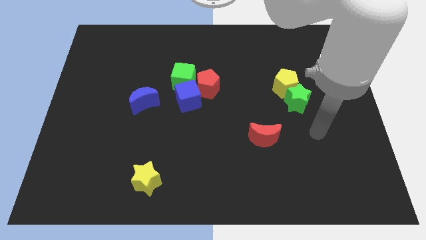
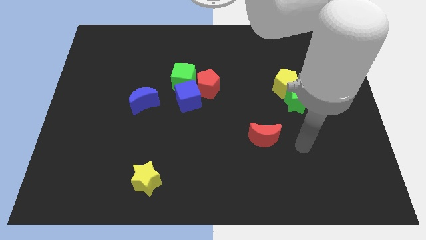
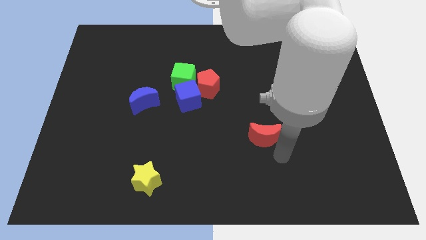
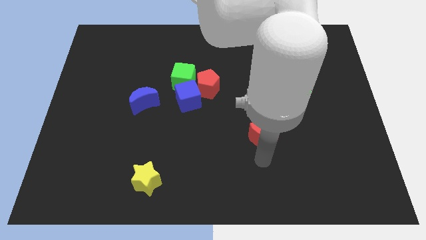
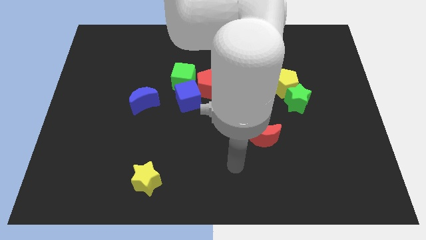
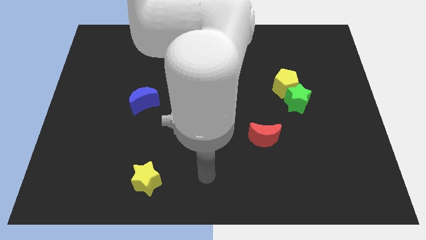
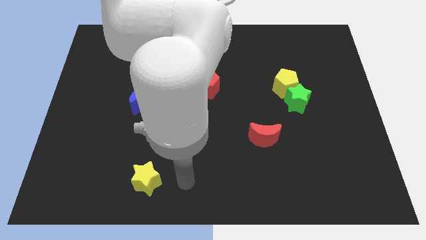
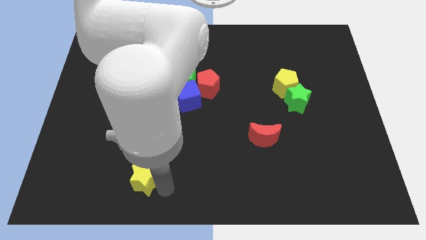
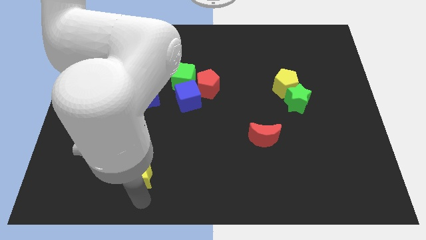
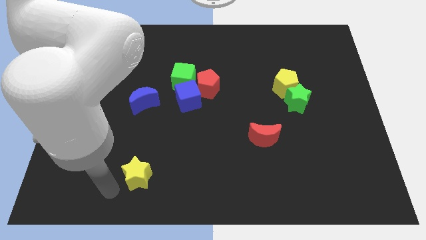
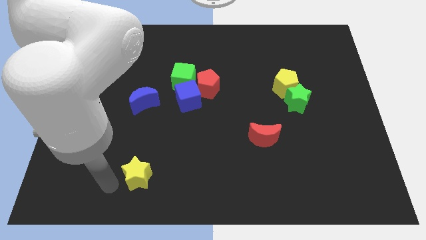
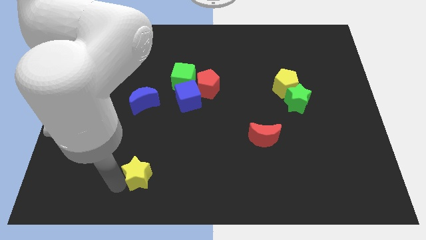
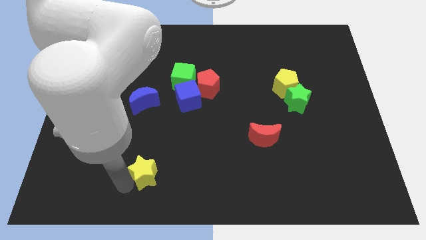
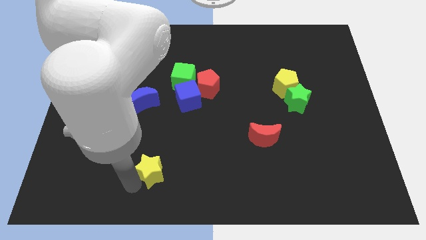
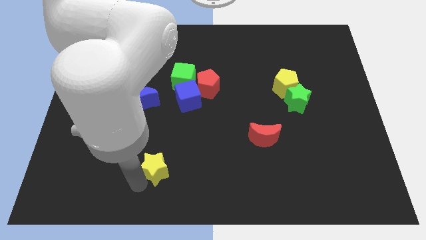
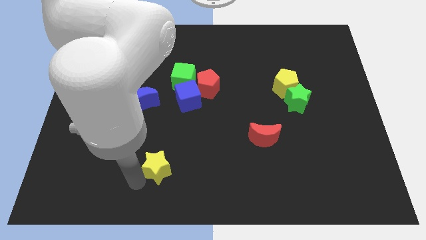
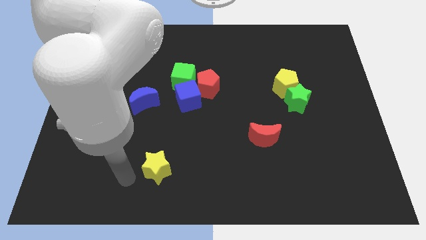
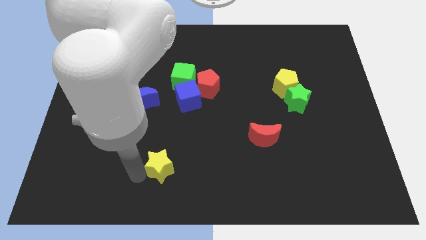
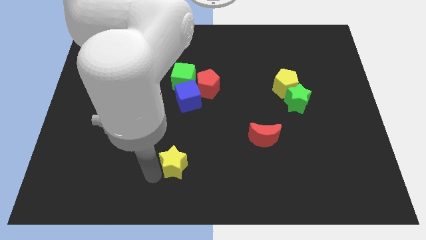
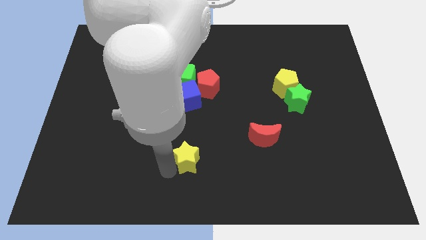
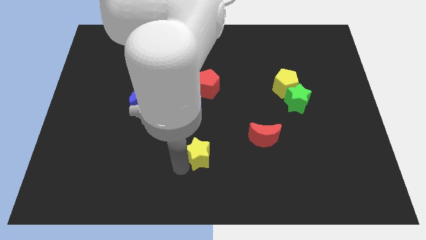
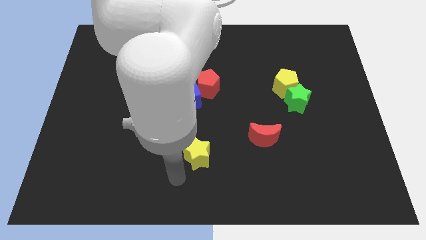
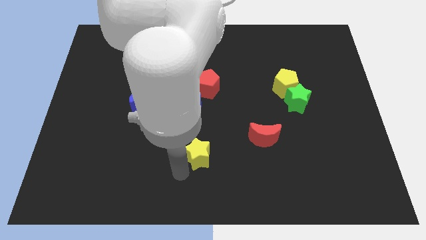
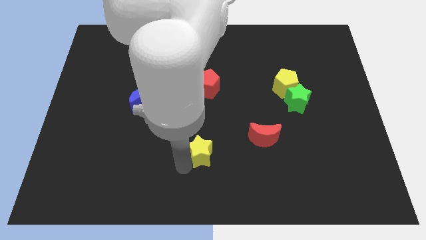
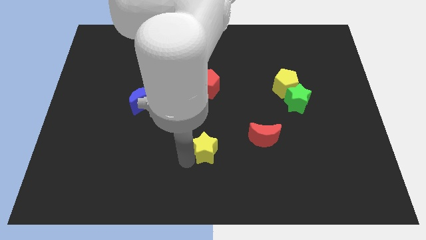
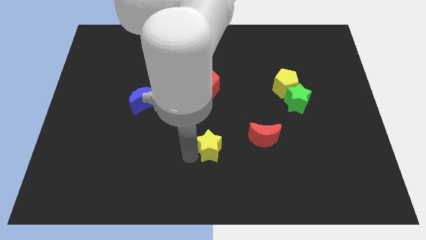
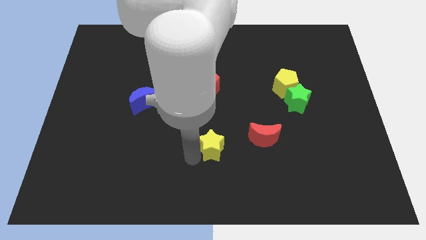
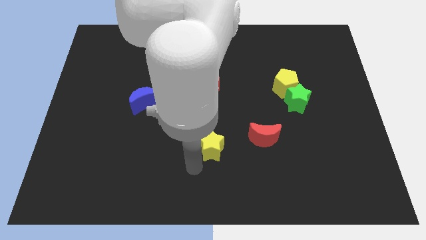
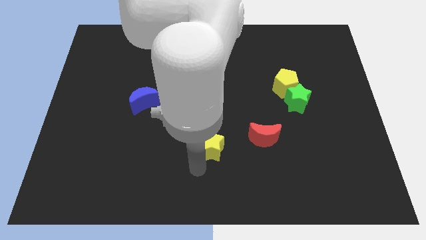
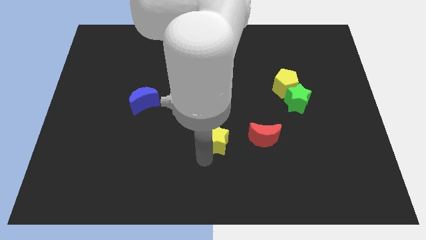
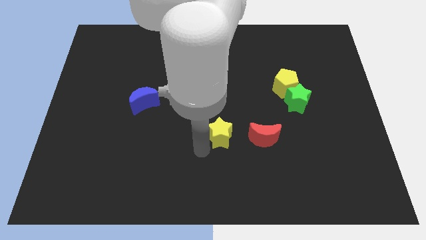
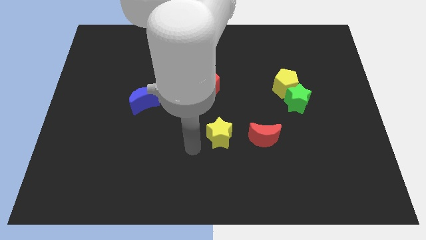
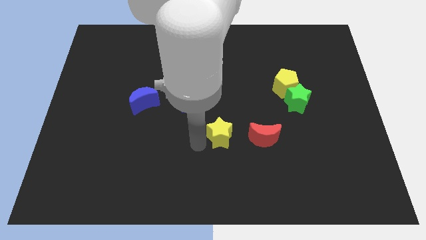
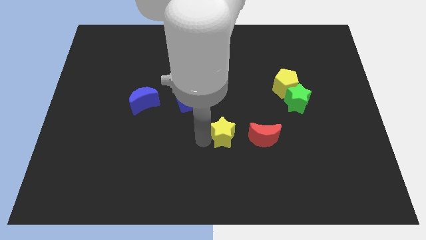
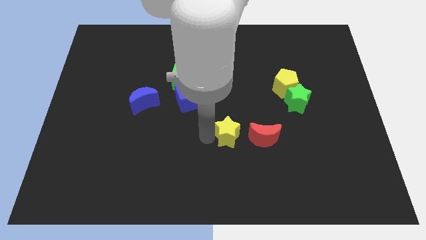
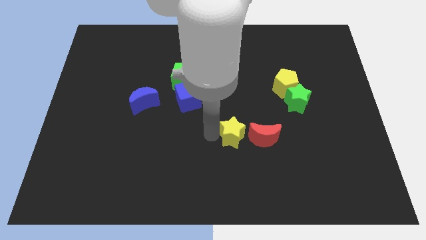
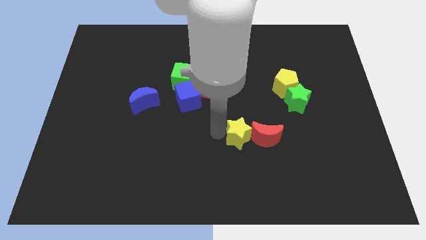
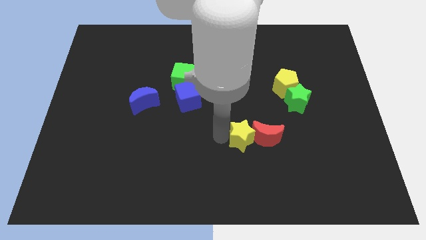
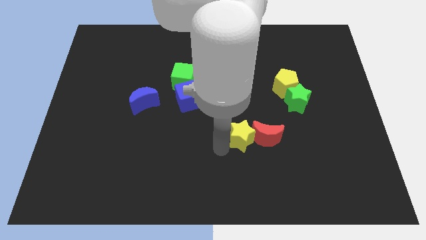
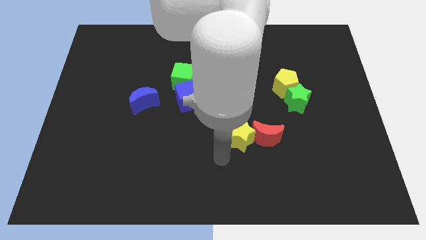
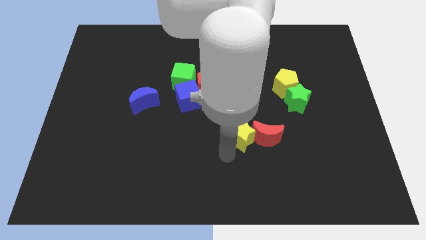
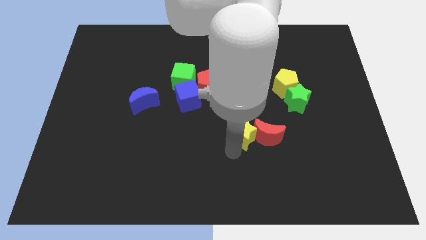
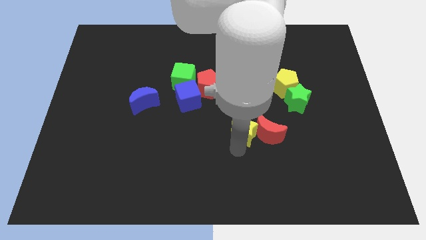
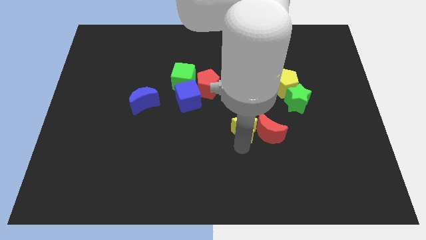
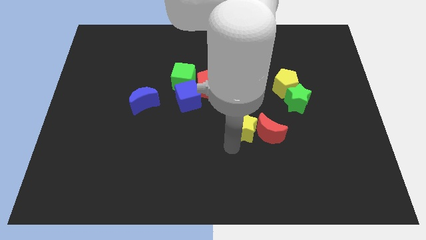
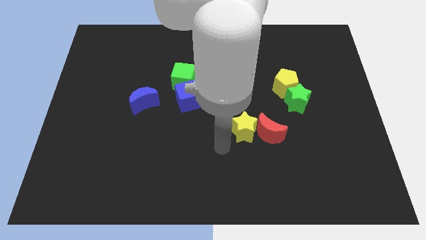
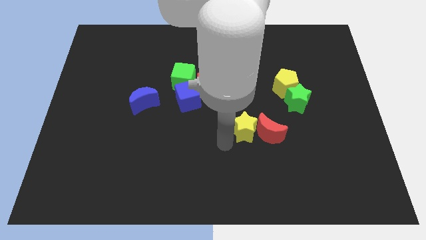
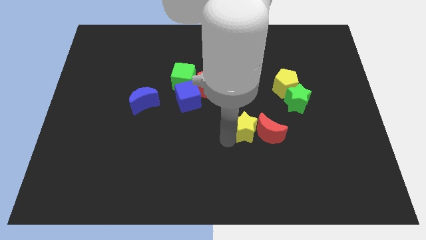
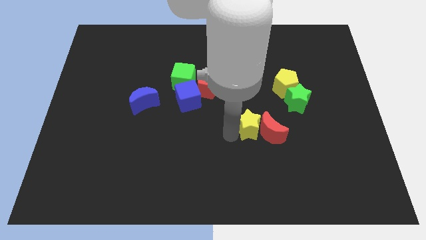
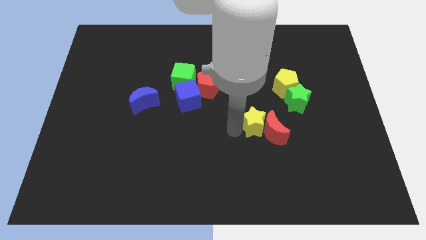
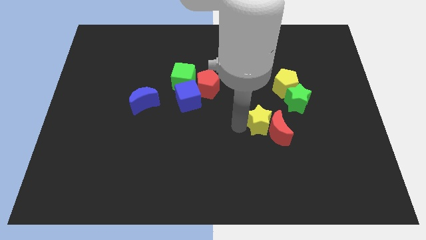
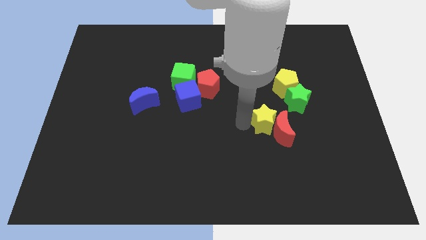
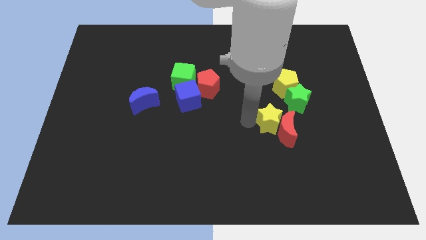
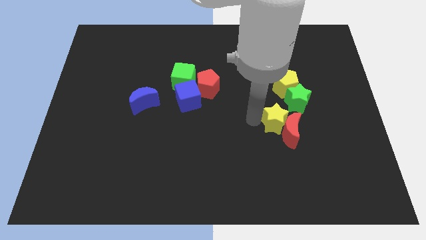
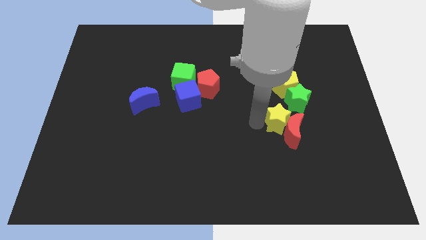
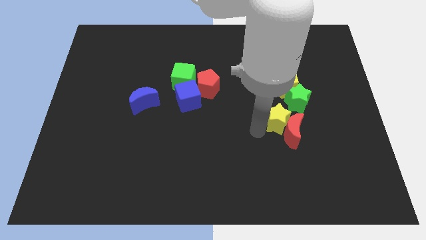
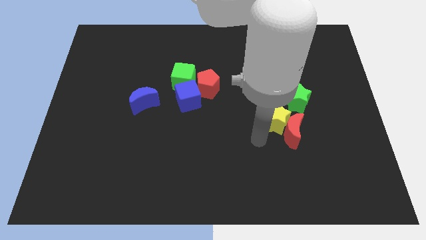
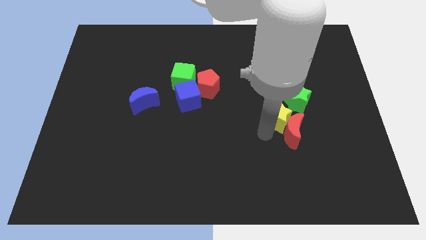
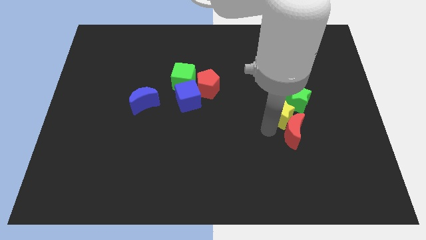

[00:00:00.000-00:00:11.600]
put the yellow star towards the green star

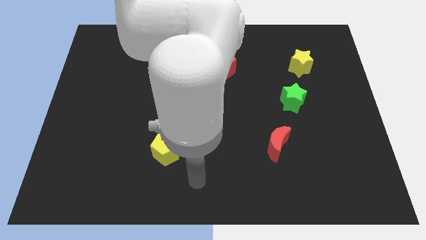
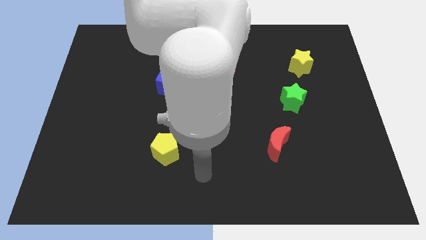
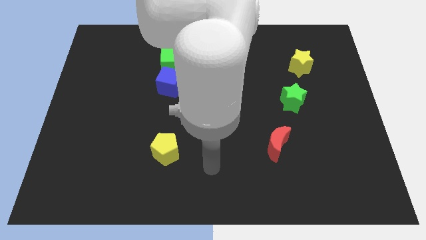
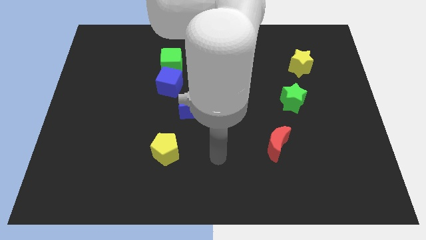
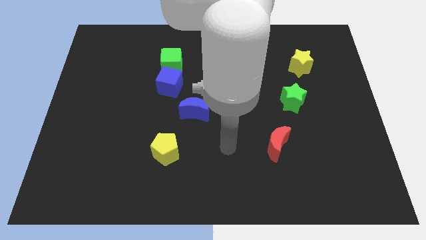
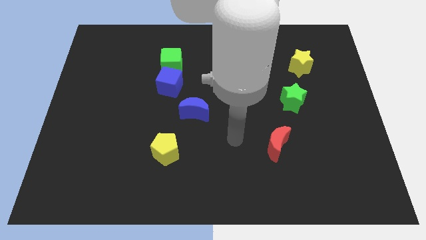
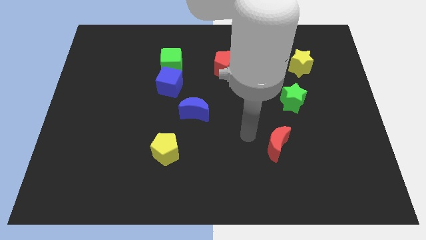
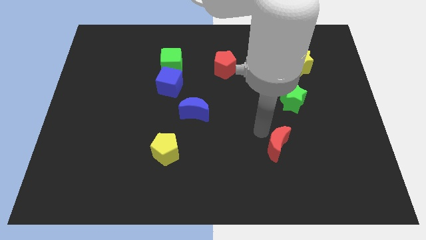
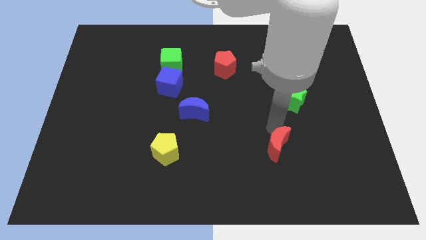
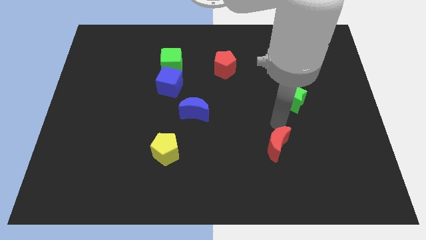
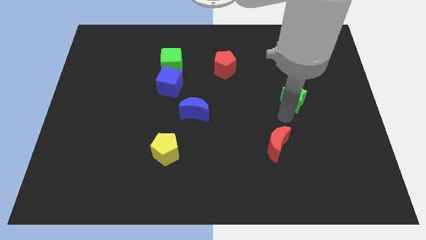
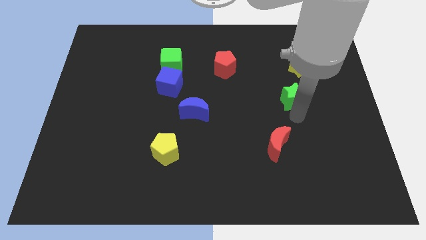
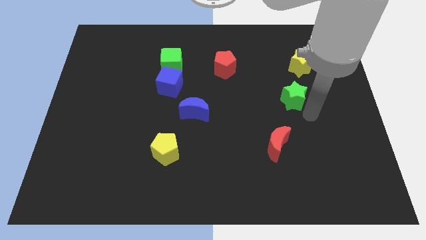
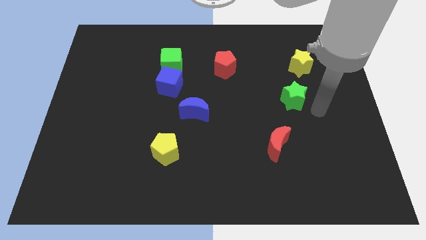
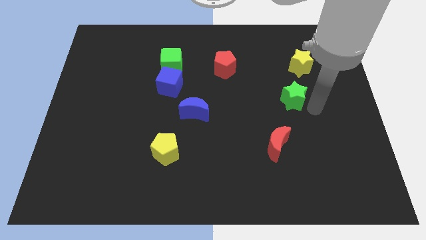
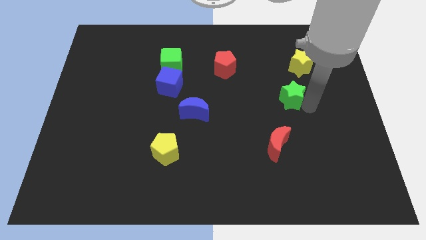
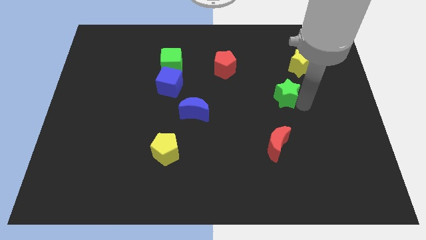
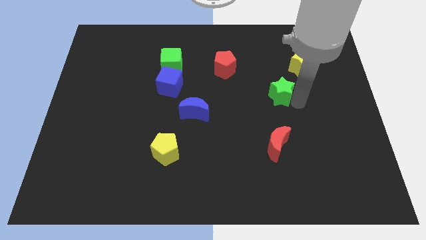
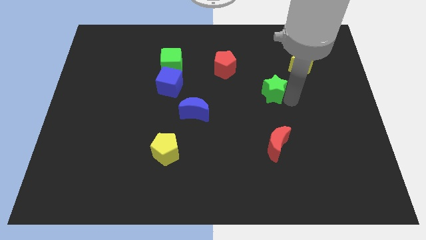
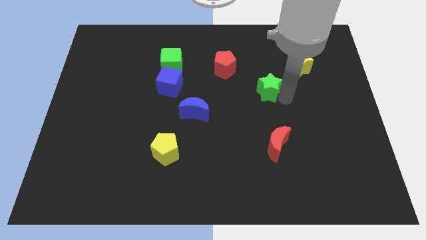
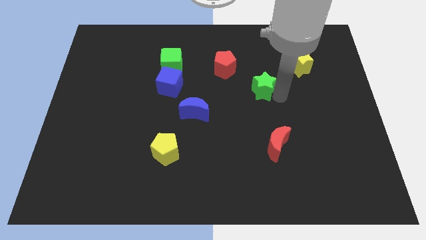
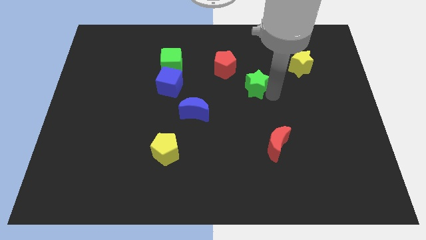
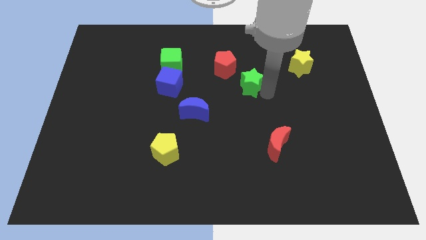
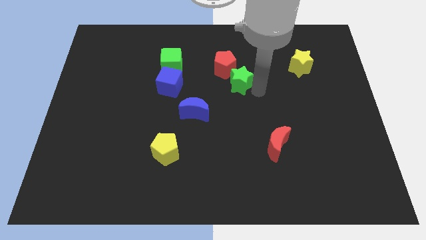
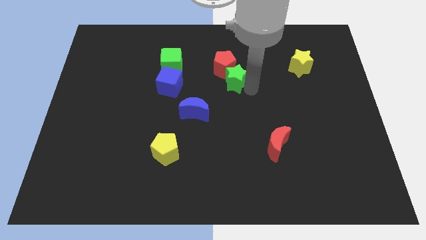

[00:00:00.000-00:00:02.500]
put the green star next to the red pentagon
